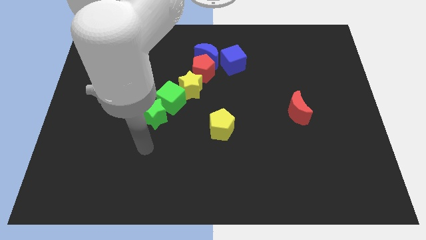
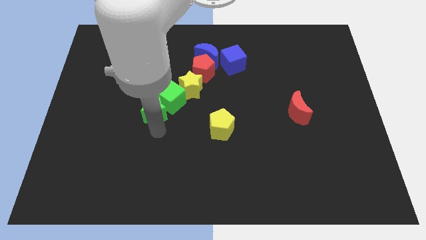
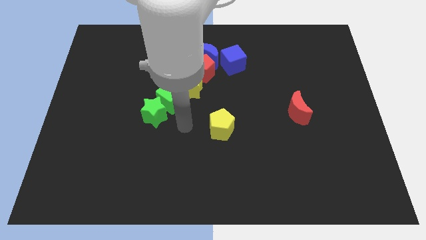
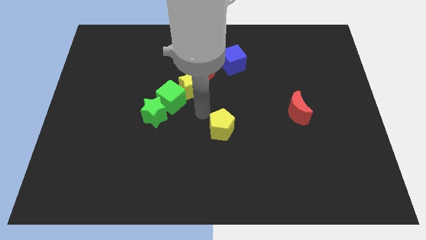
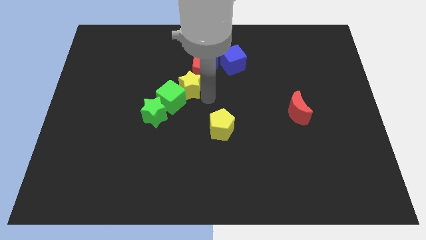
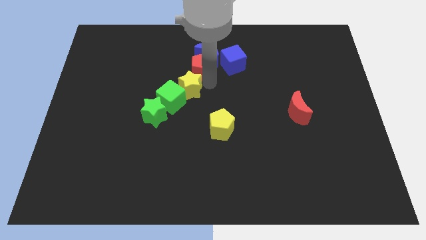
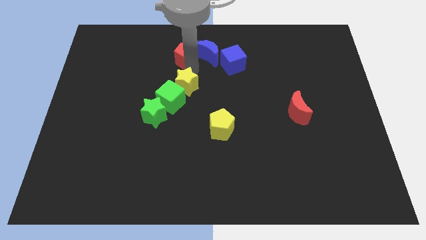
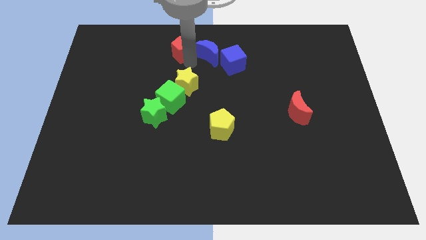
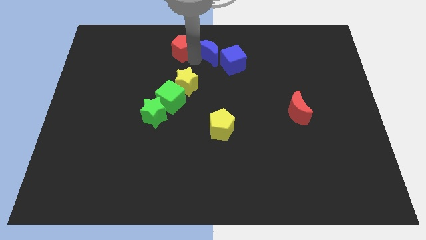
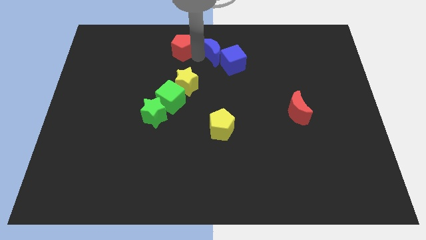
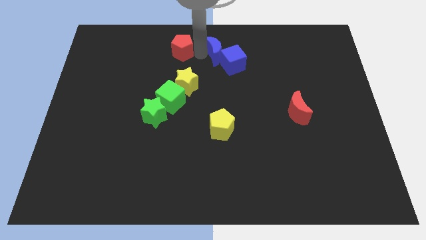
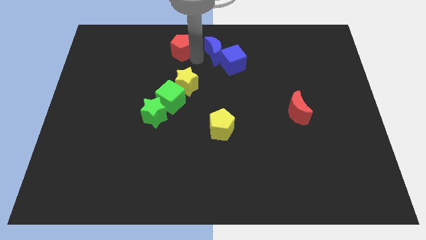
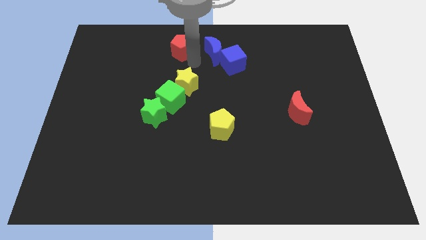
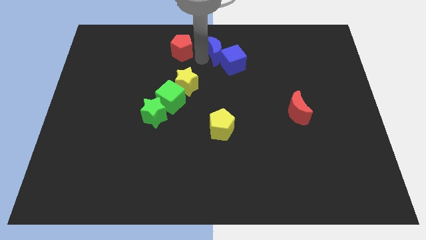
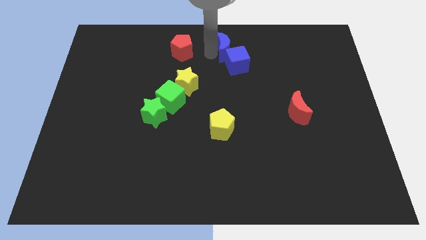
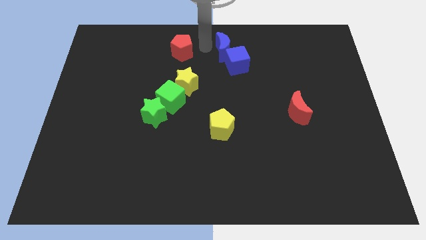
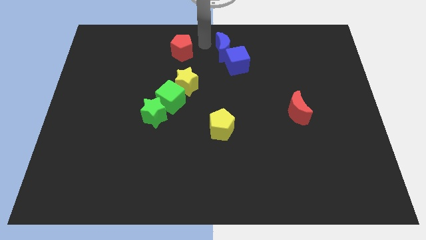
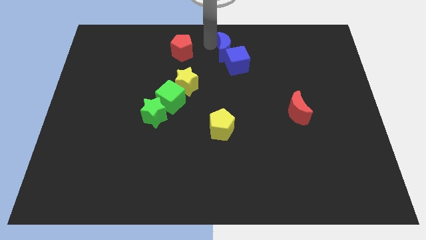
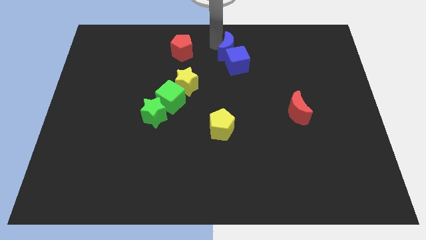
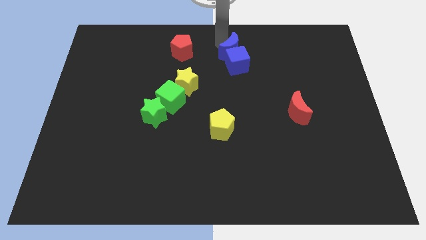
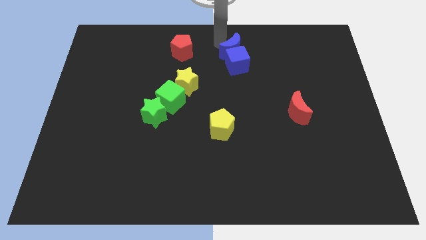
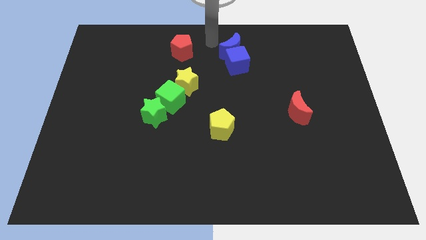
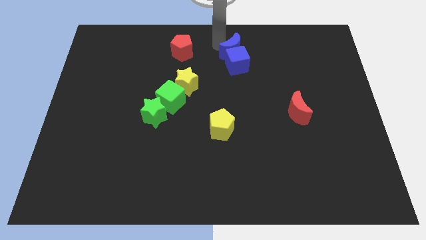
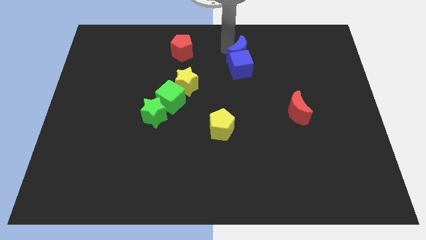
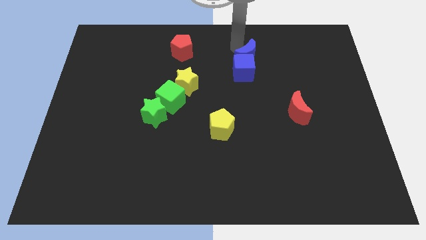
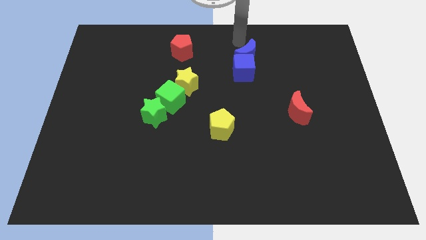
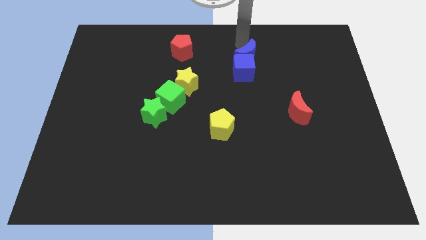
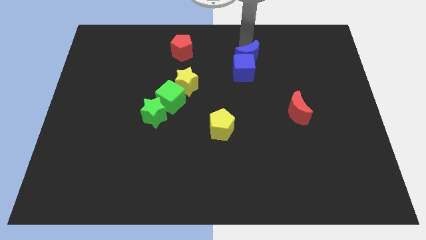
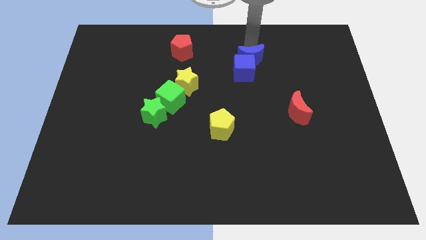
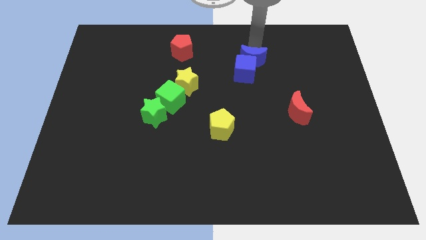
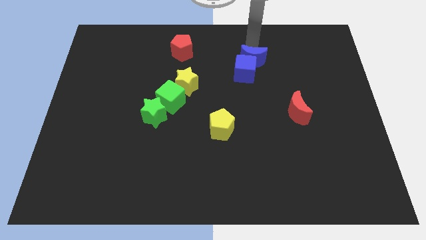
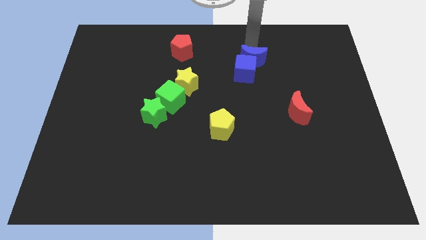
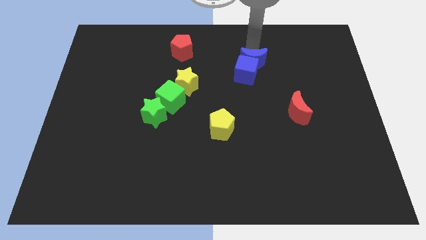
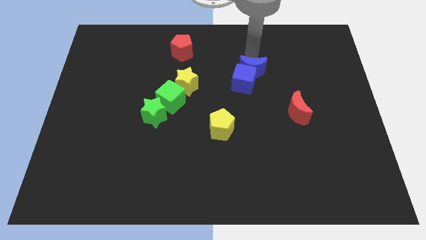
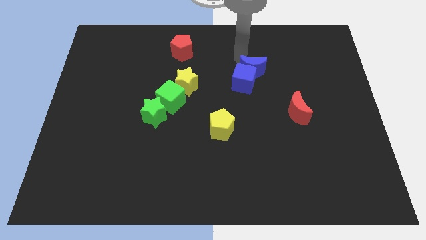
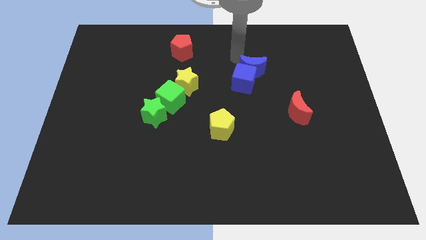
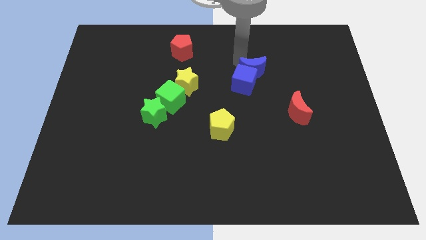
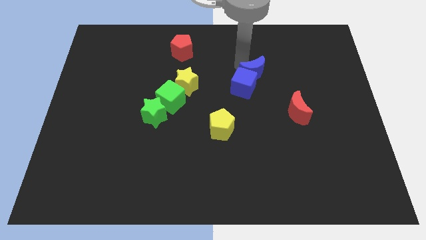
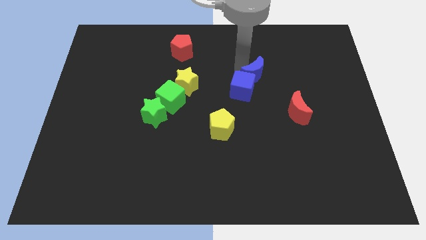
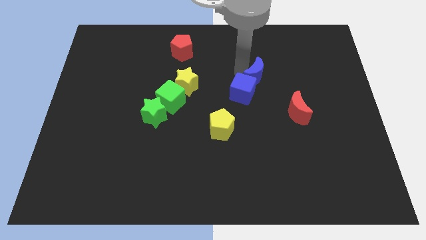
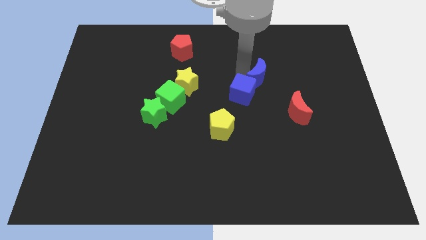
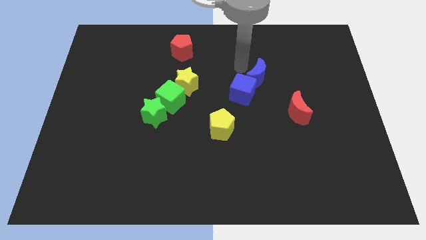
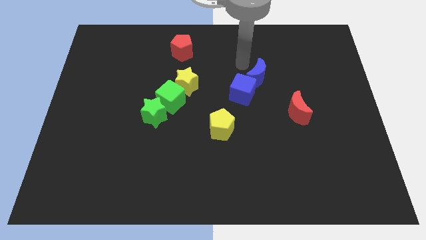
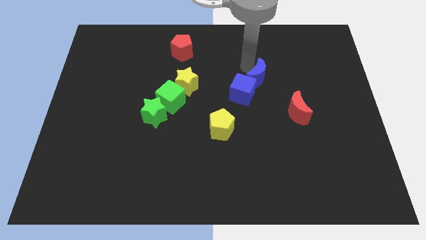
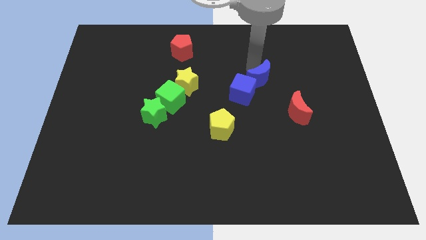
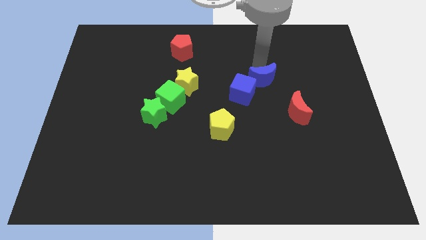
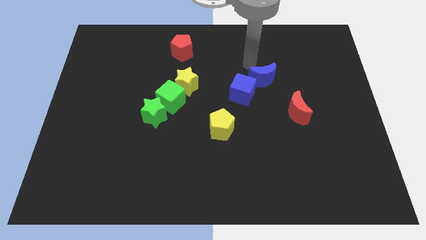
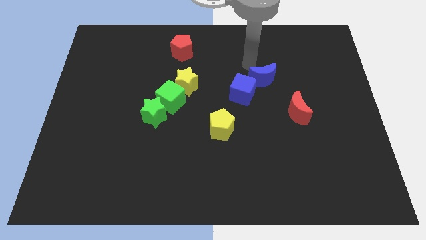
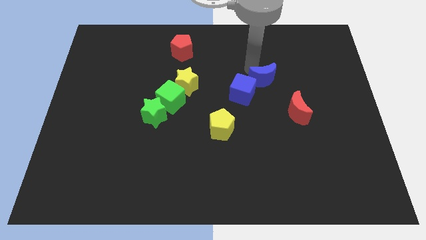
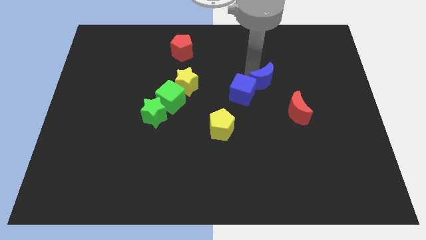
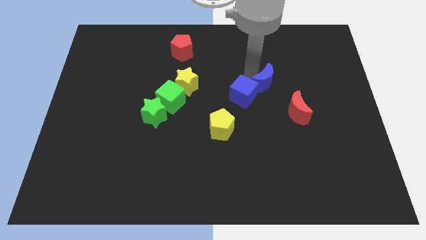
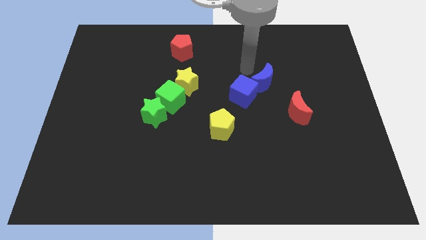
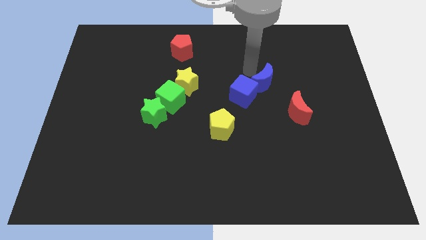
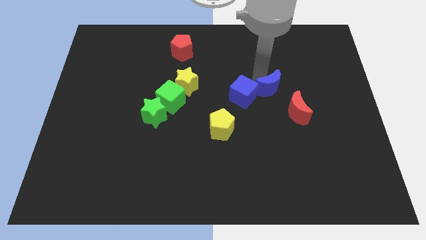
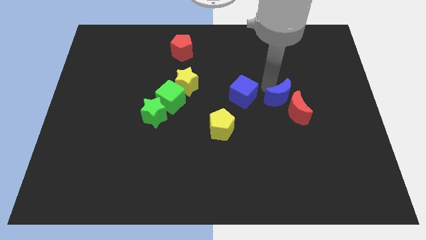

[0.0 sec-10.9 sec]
put the blue moon next to the red moon

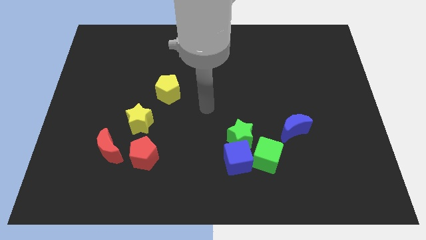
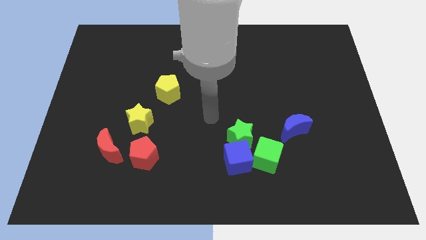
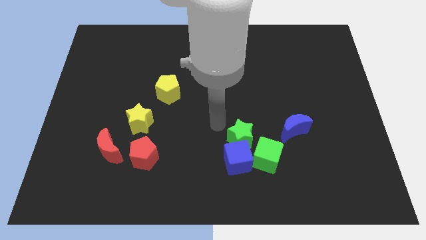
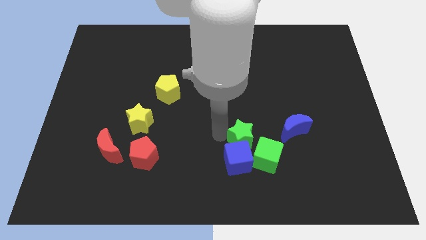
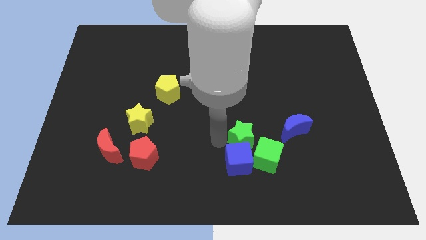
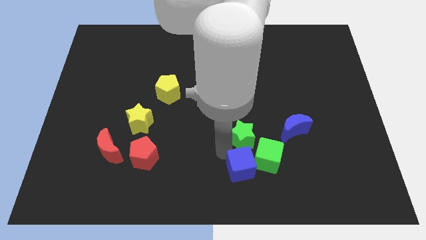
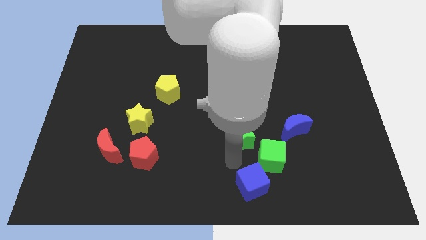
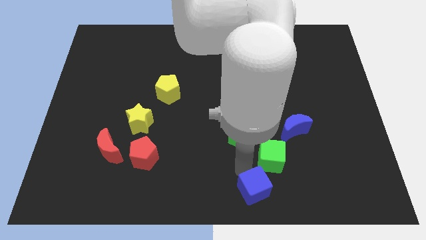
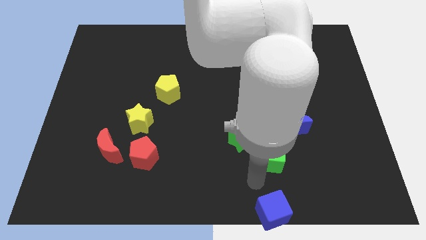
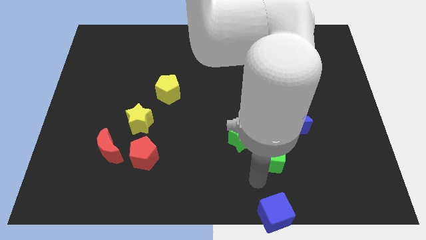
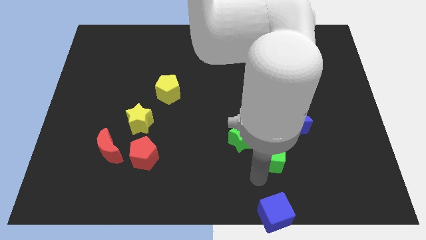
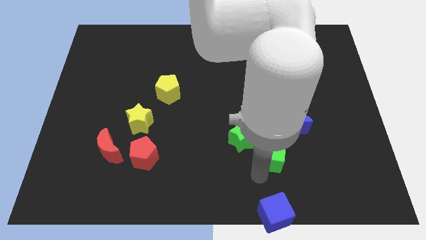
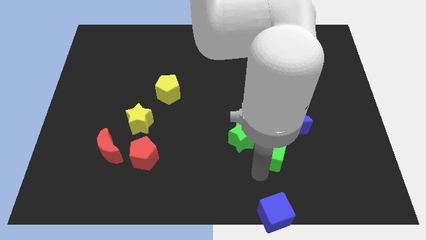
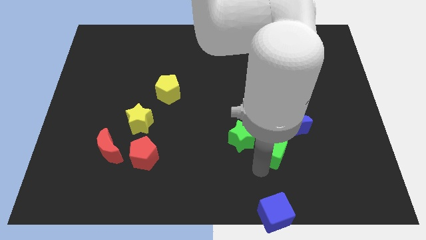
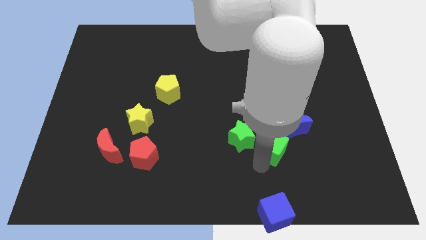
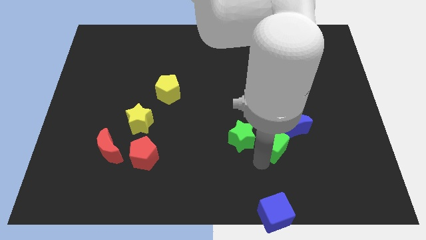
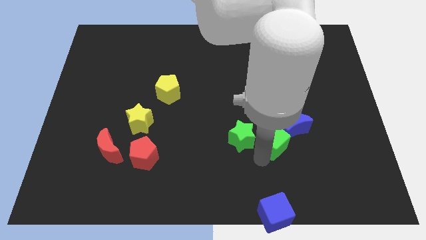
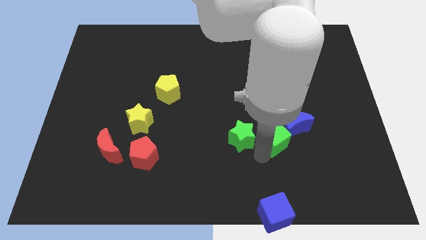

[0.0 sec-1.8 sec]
put the green cube to the blue moon
